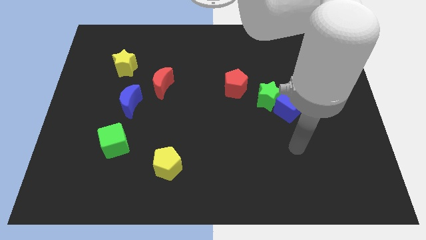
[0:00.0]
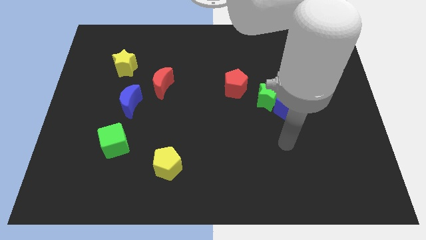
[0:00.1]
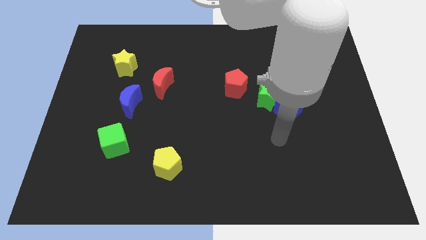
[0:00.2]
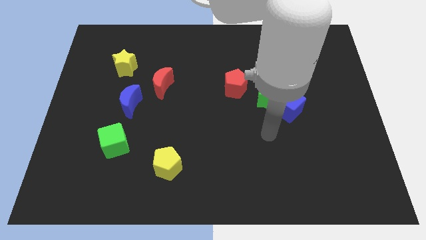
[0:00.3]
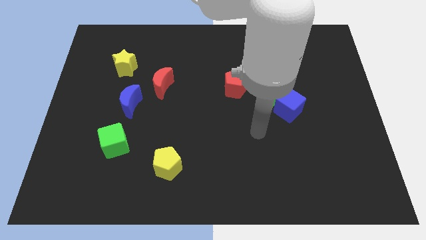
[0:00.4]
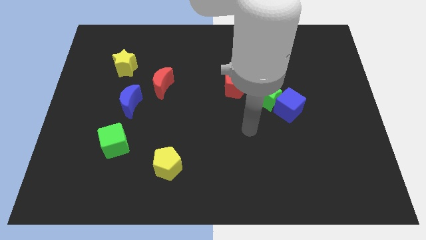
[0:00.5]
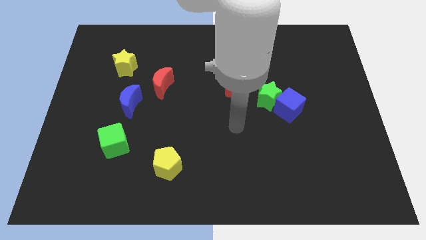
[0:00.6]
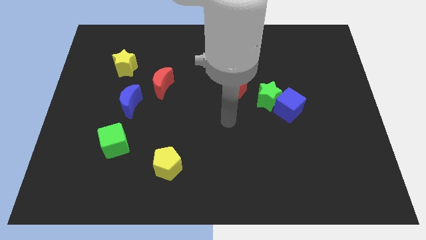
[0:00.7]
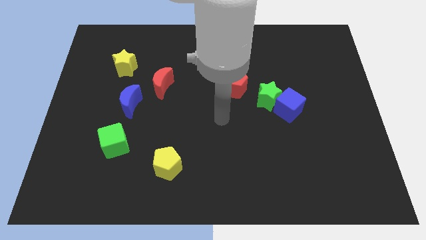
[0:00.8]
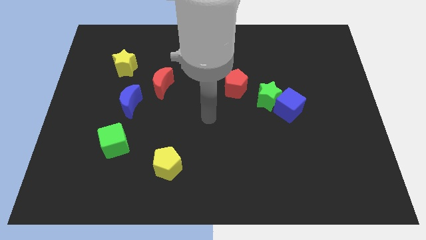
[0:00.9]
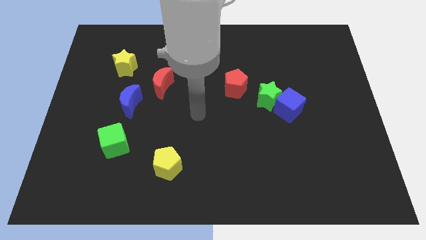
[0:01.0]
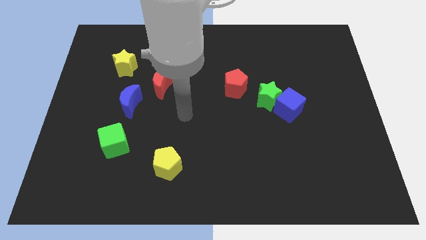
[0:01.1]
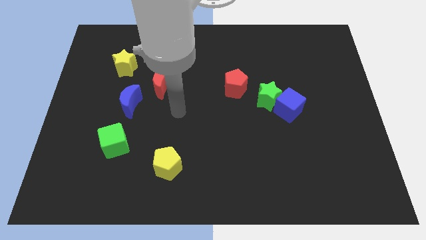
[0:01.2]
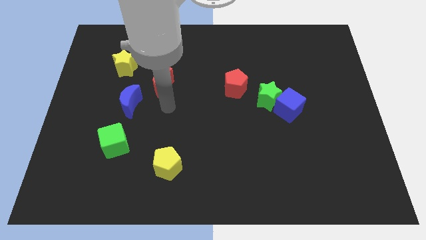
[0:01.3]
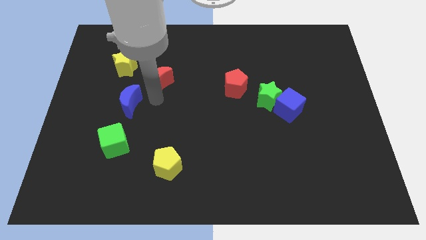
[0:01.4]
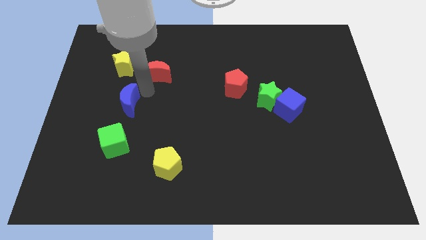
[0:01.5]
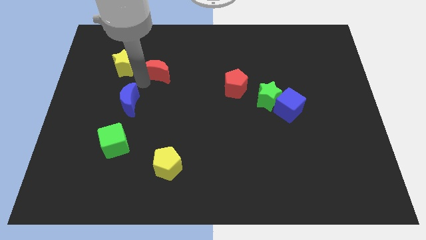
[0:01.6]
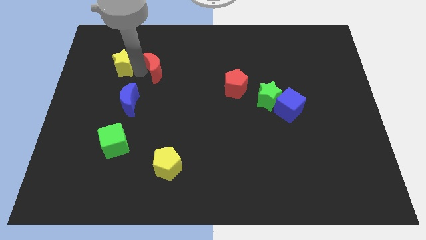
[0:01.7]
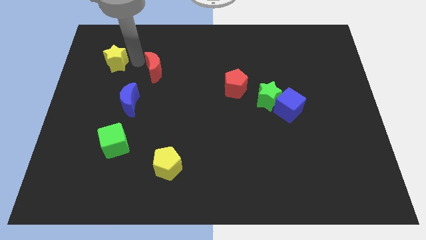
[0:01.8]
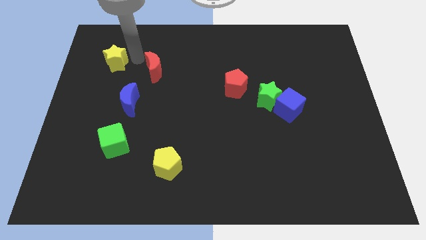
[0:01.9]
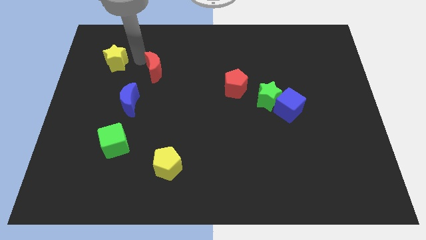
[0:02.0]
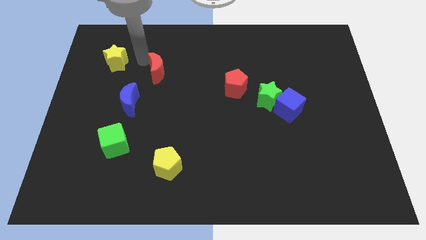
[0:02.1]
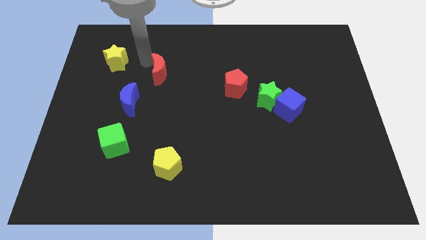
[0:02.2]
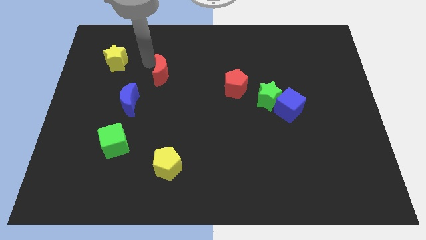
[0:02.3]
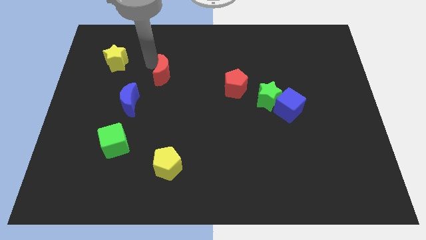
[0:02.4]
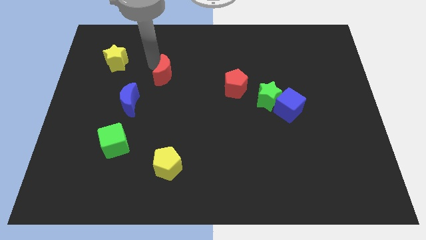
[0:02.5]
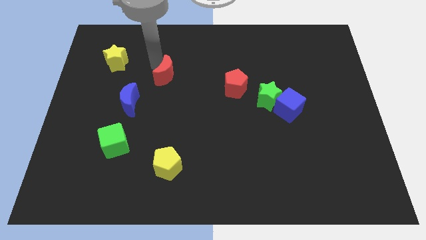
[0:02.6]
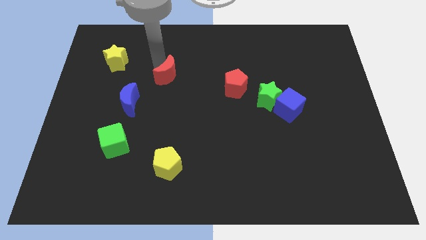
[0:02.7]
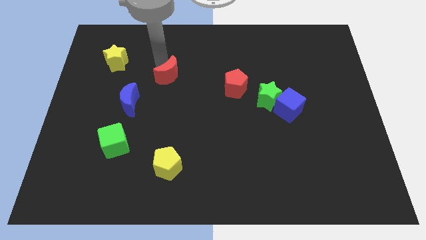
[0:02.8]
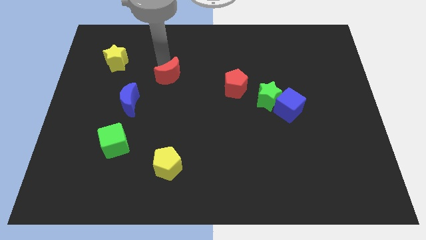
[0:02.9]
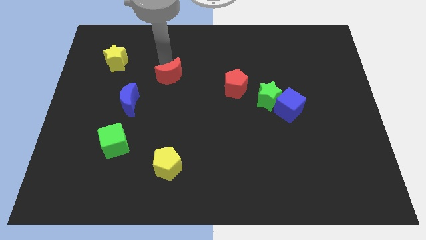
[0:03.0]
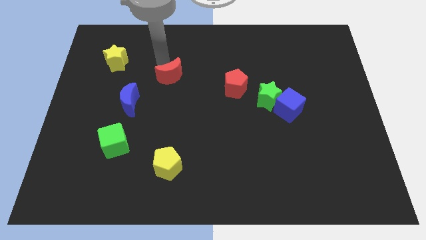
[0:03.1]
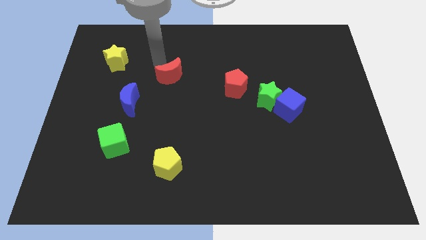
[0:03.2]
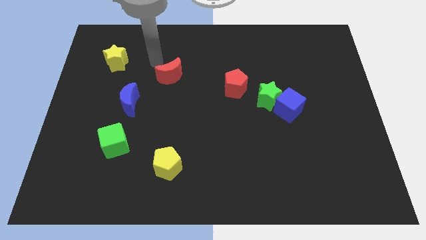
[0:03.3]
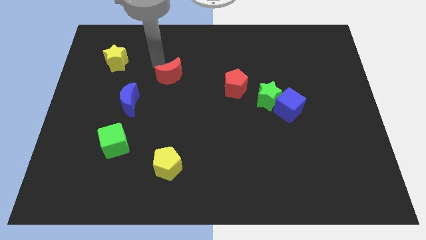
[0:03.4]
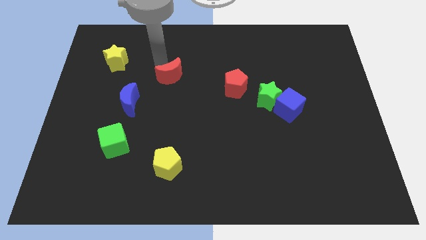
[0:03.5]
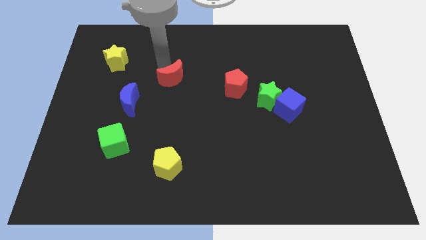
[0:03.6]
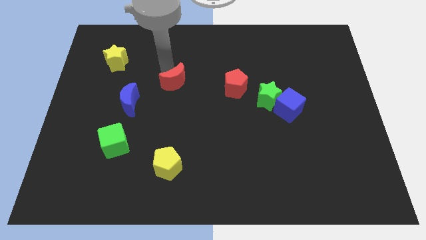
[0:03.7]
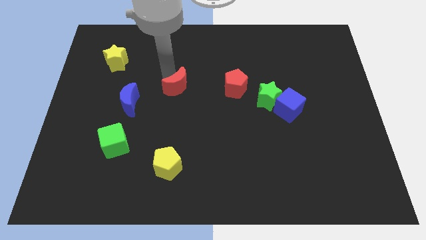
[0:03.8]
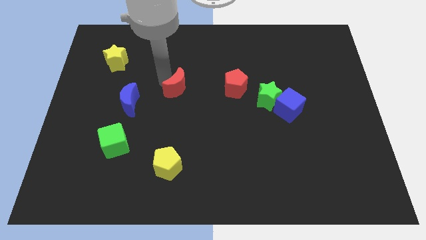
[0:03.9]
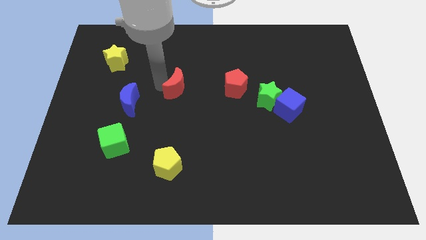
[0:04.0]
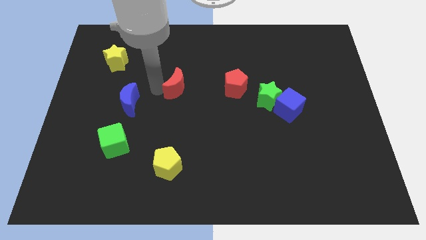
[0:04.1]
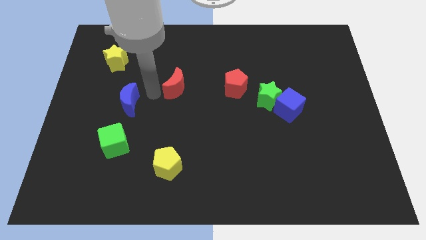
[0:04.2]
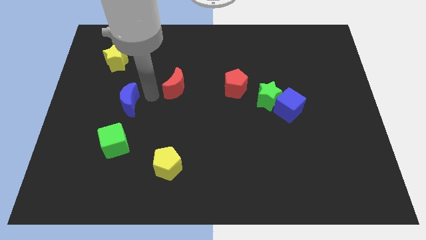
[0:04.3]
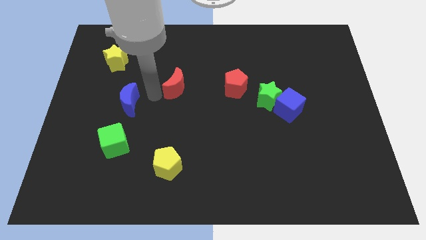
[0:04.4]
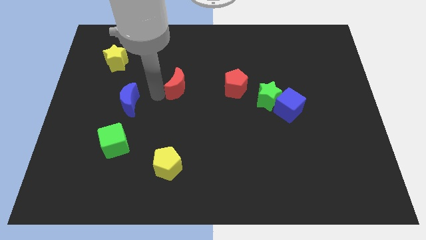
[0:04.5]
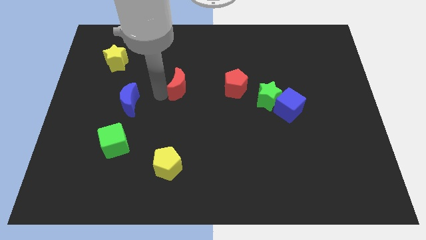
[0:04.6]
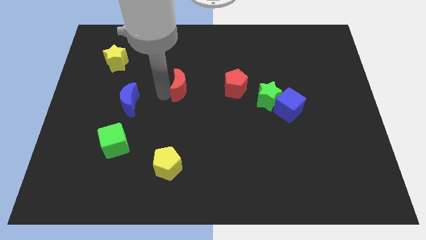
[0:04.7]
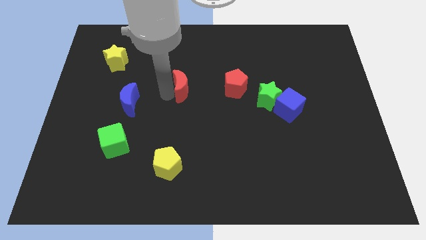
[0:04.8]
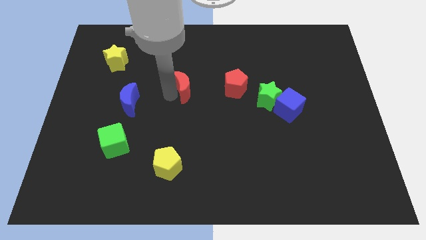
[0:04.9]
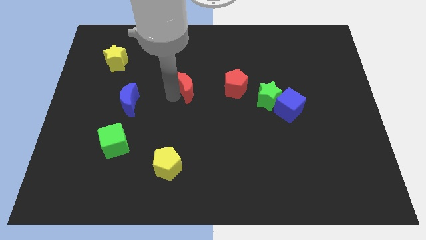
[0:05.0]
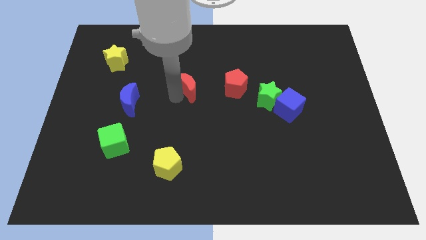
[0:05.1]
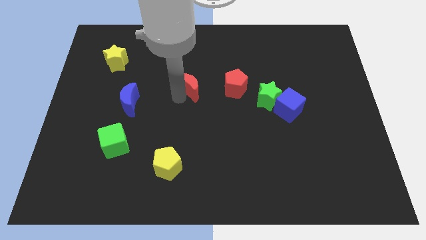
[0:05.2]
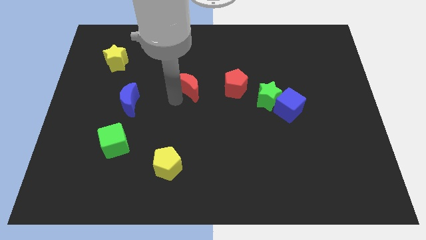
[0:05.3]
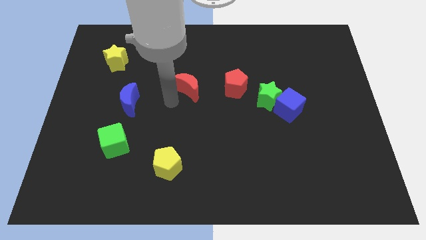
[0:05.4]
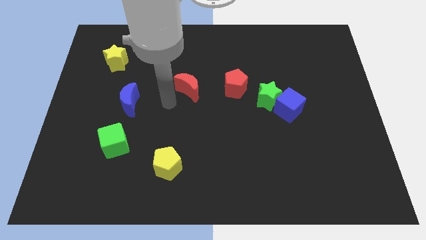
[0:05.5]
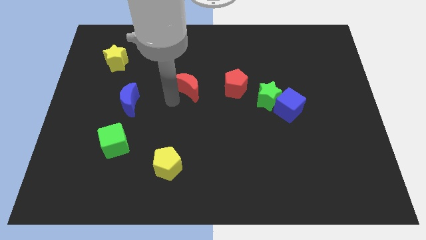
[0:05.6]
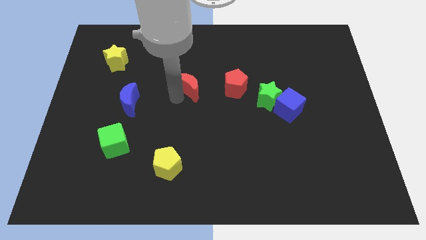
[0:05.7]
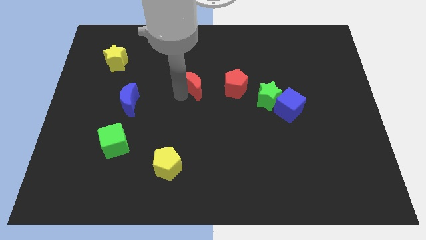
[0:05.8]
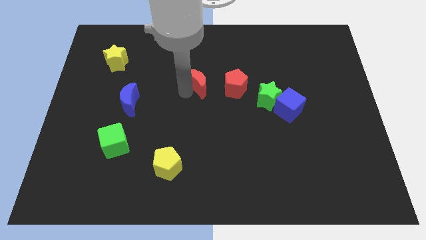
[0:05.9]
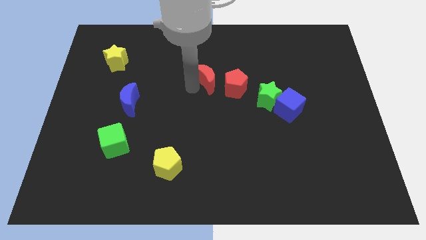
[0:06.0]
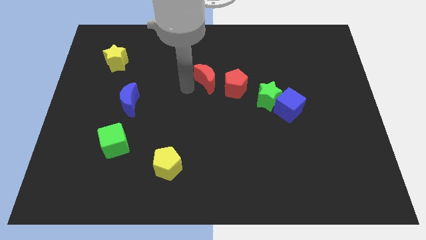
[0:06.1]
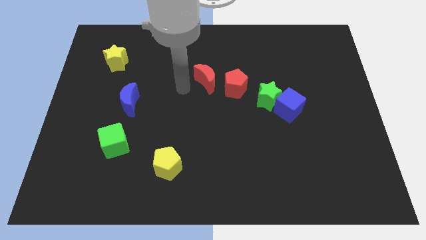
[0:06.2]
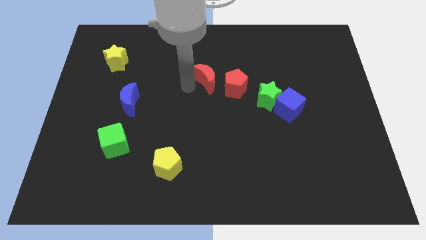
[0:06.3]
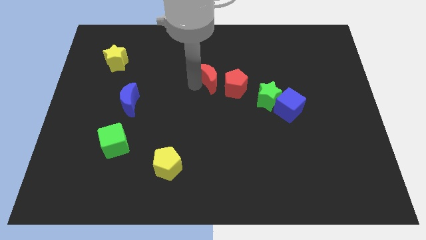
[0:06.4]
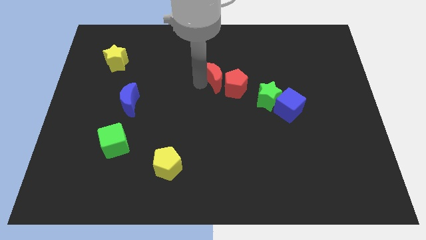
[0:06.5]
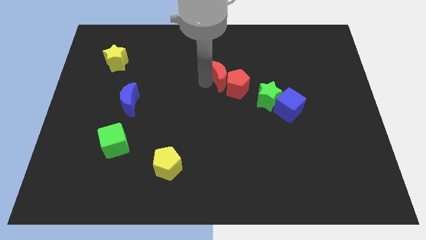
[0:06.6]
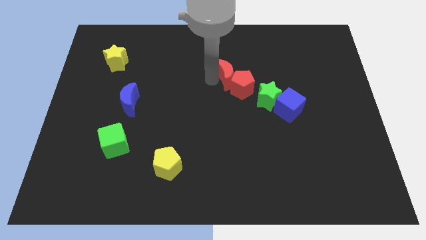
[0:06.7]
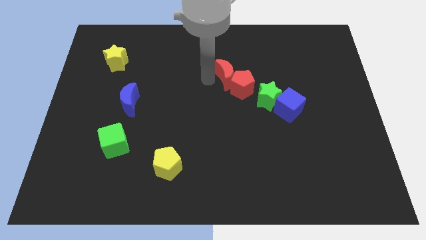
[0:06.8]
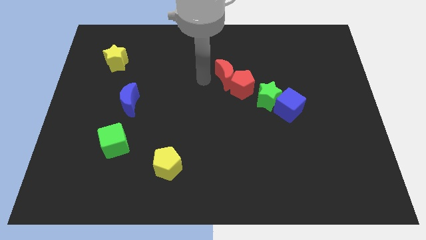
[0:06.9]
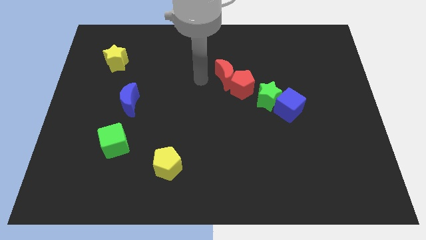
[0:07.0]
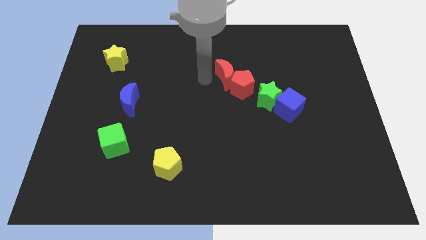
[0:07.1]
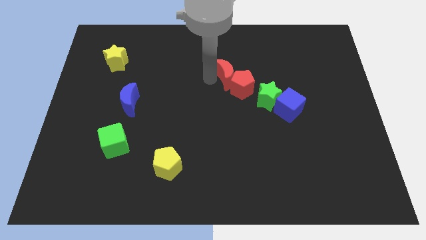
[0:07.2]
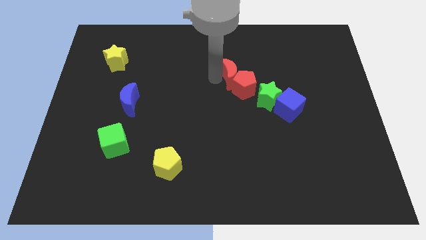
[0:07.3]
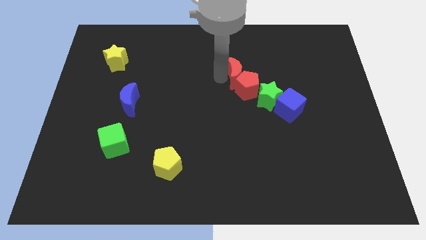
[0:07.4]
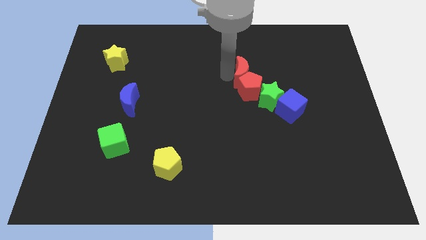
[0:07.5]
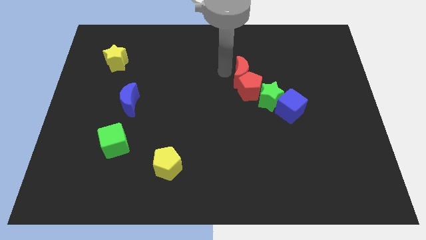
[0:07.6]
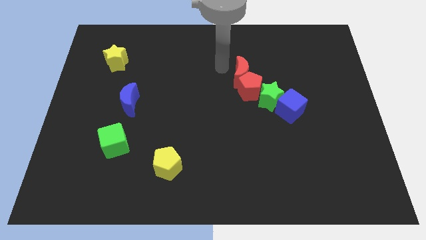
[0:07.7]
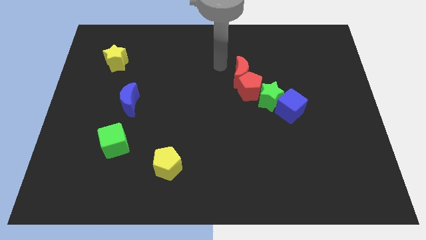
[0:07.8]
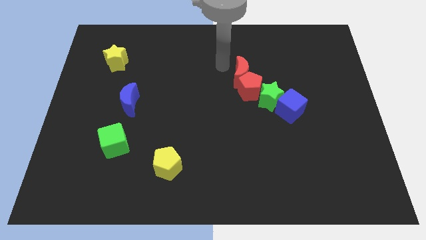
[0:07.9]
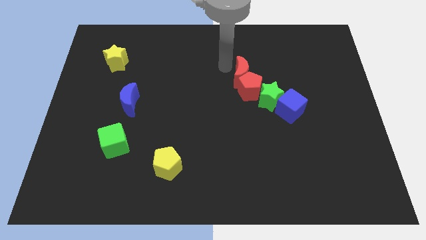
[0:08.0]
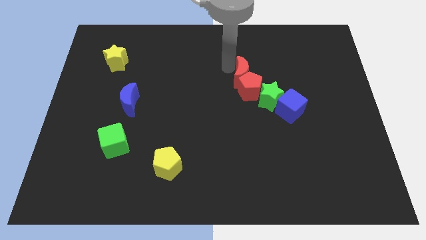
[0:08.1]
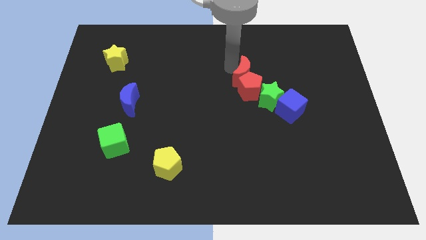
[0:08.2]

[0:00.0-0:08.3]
move the red moon to the right
